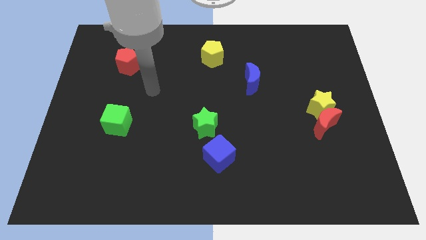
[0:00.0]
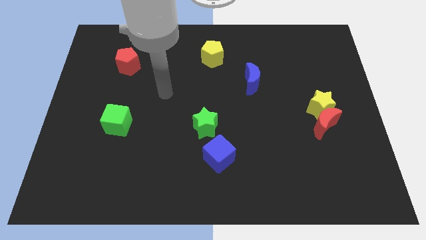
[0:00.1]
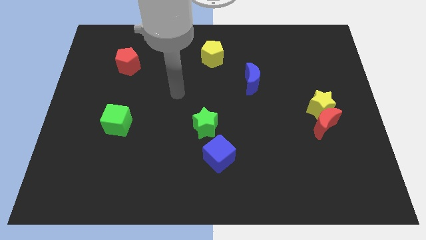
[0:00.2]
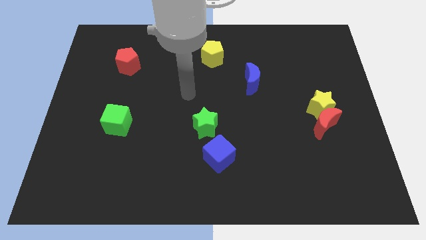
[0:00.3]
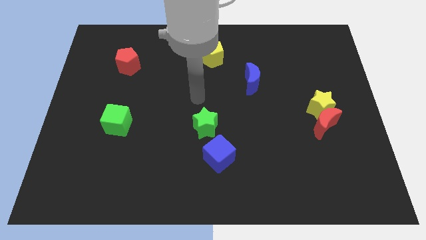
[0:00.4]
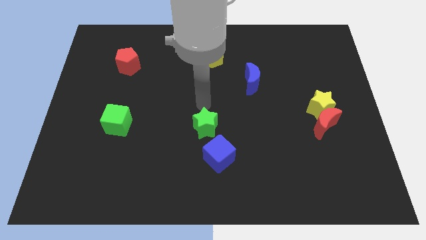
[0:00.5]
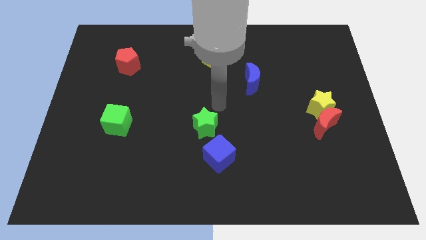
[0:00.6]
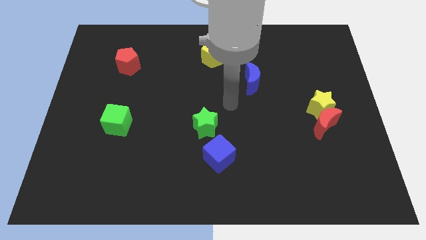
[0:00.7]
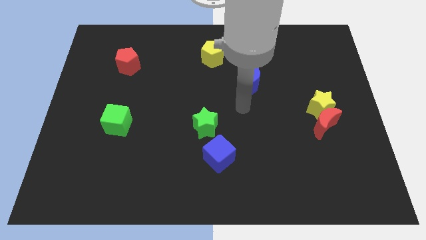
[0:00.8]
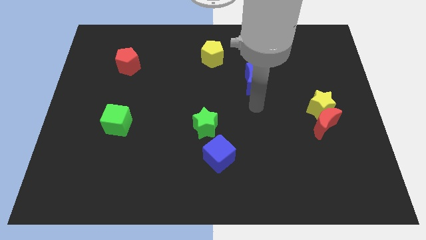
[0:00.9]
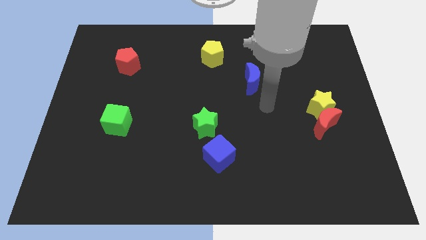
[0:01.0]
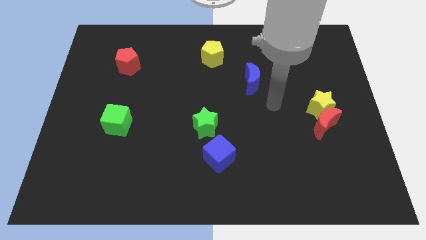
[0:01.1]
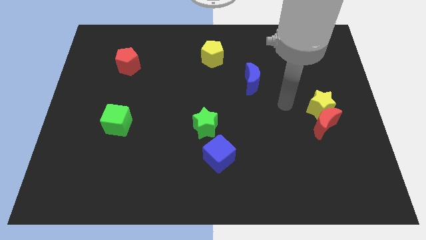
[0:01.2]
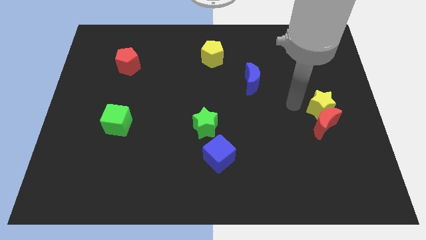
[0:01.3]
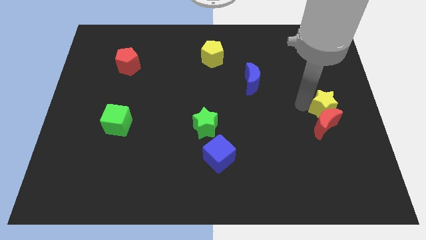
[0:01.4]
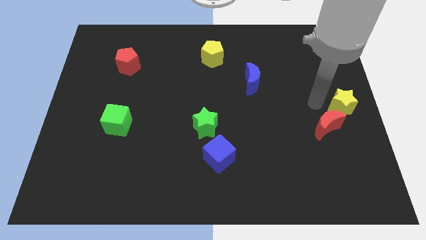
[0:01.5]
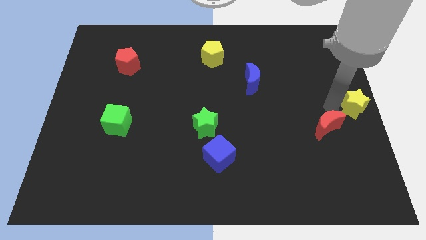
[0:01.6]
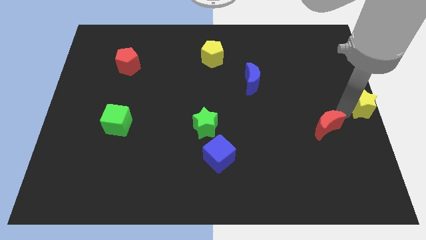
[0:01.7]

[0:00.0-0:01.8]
pull the red moon apart from the yellow star

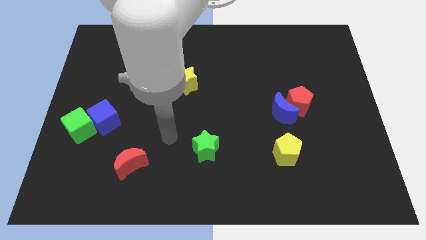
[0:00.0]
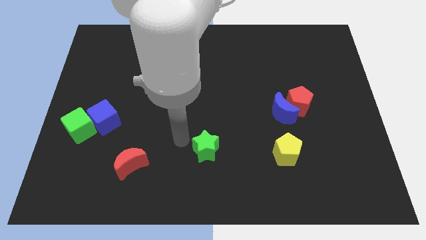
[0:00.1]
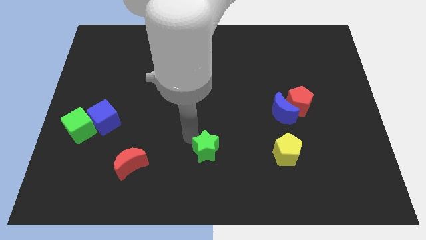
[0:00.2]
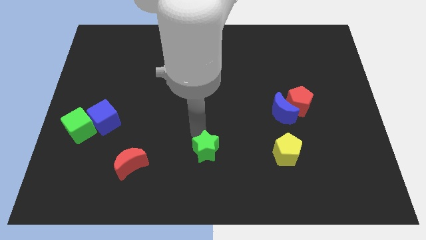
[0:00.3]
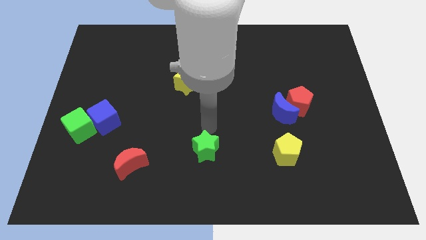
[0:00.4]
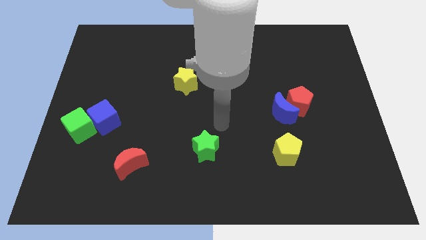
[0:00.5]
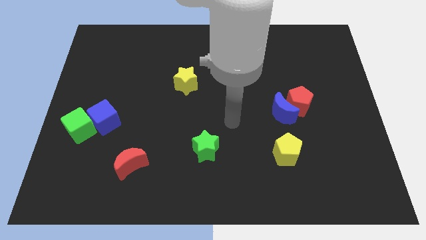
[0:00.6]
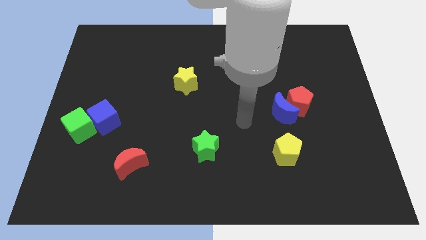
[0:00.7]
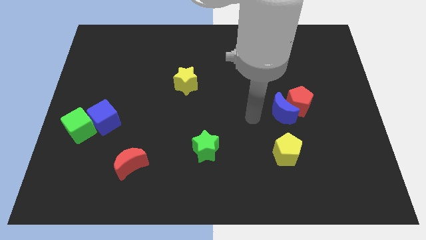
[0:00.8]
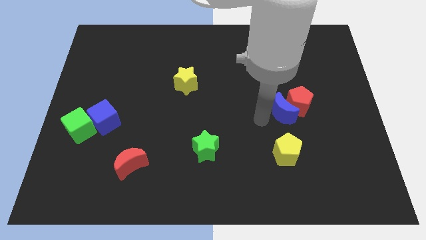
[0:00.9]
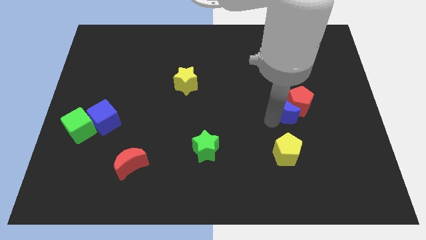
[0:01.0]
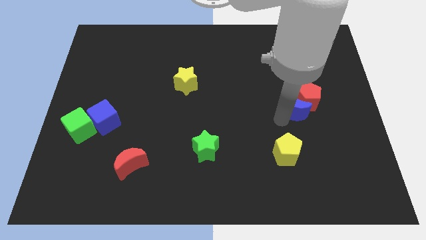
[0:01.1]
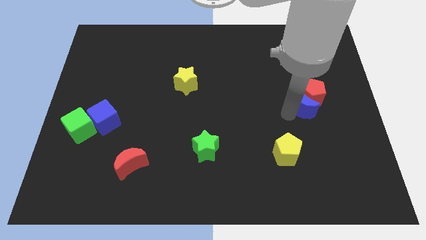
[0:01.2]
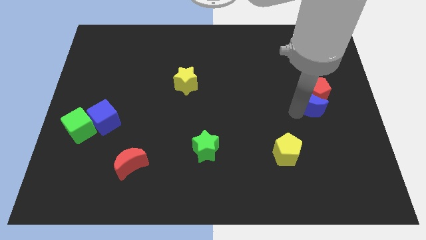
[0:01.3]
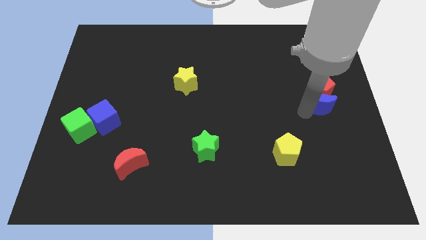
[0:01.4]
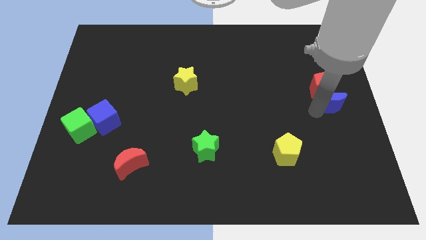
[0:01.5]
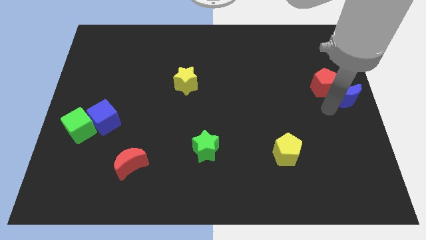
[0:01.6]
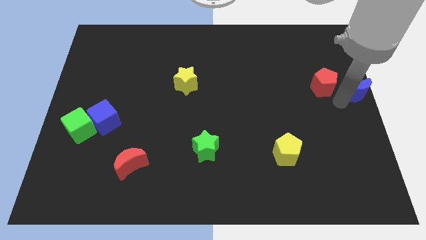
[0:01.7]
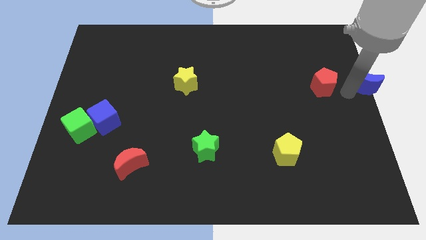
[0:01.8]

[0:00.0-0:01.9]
separate the red pentagon from the blue moon

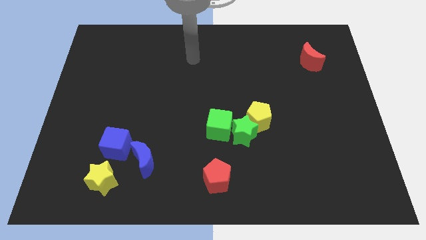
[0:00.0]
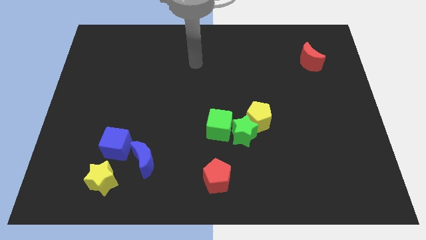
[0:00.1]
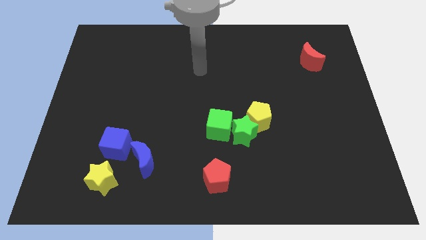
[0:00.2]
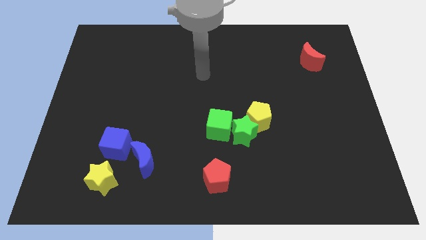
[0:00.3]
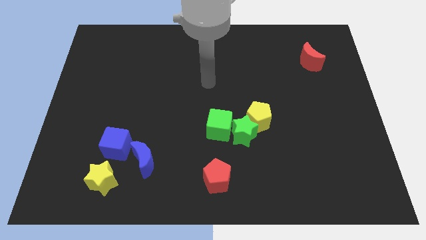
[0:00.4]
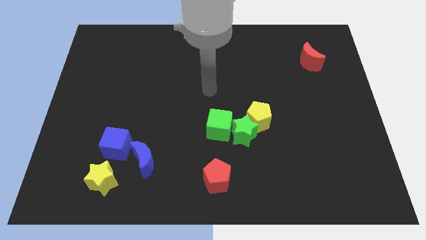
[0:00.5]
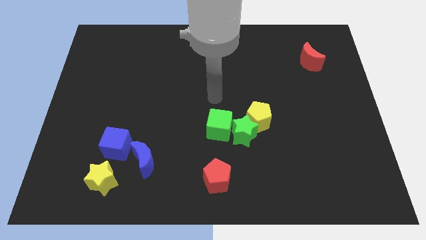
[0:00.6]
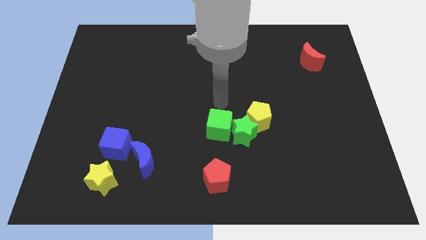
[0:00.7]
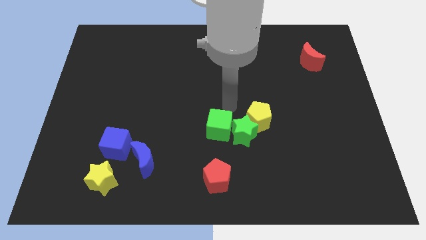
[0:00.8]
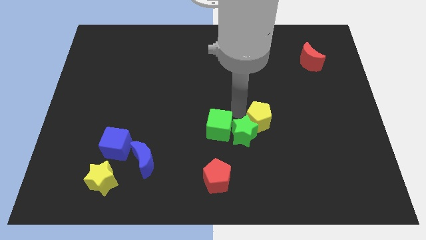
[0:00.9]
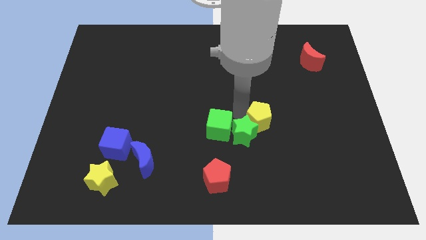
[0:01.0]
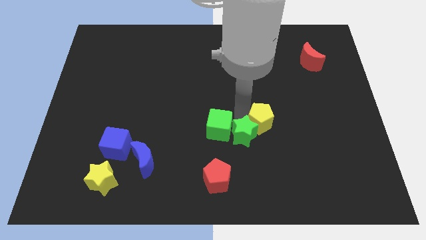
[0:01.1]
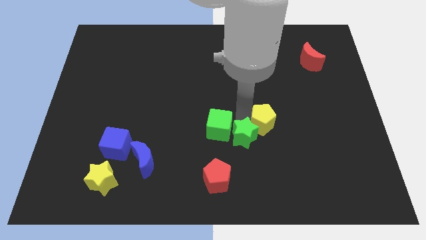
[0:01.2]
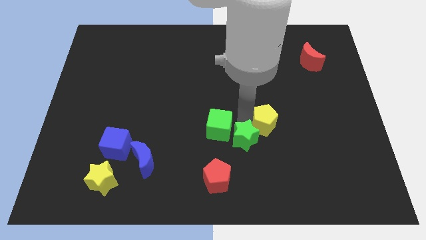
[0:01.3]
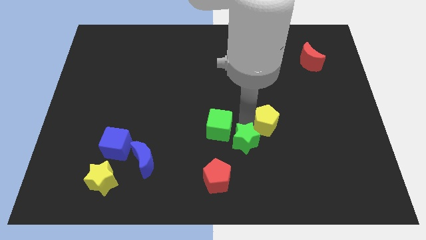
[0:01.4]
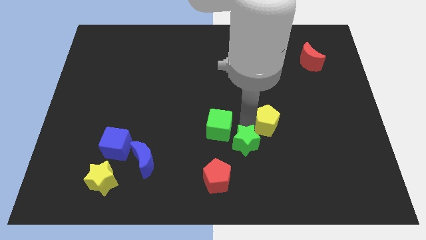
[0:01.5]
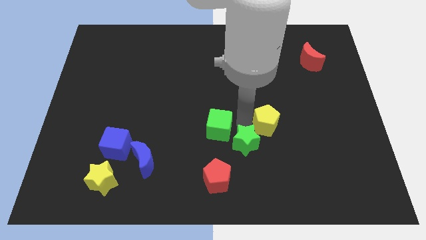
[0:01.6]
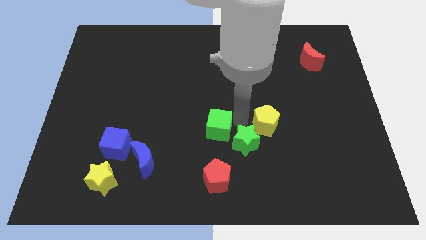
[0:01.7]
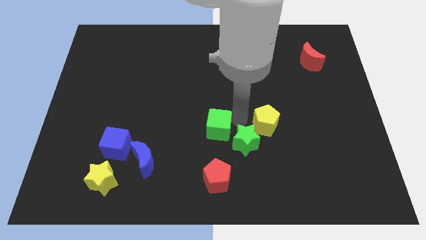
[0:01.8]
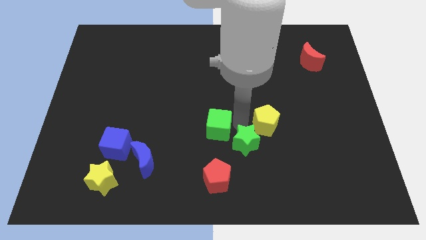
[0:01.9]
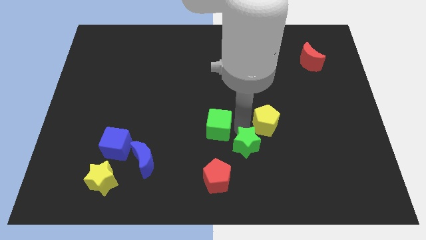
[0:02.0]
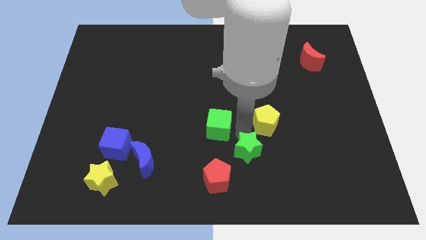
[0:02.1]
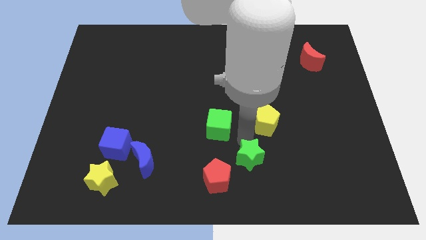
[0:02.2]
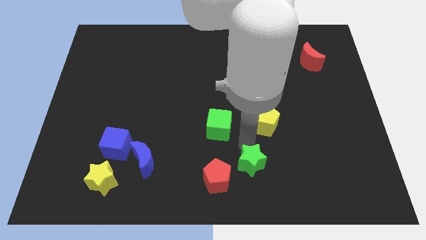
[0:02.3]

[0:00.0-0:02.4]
separate the green star from the yellow pentagon and green cube

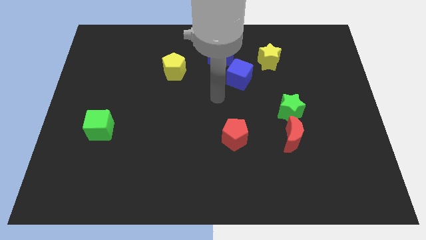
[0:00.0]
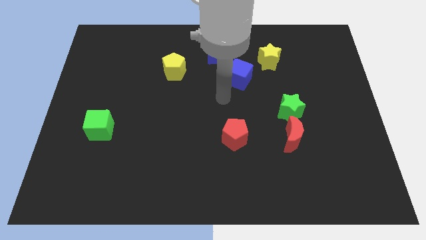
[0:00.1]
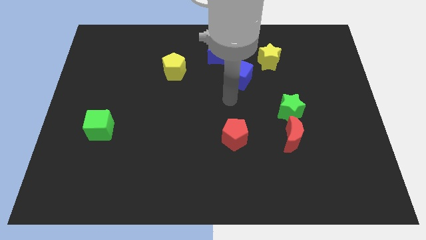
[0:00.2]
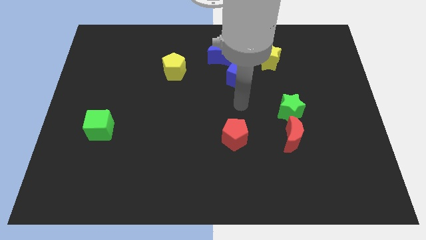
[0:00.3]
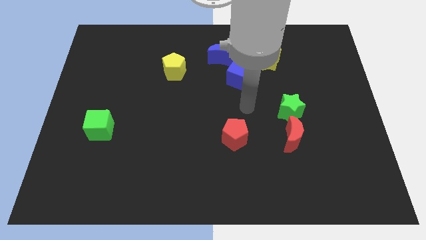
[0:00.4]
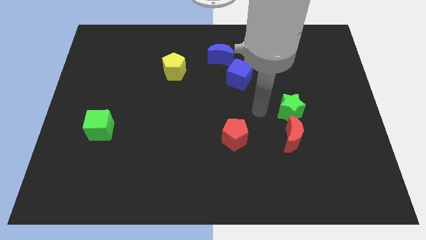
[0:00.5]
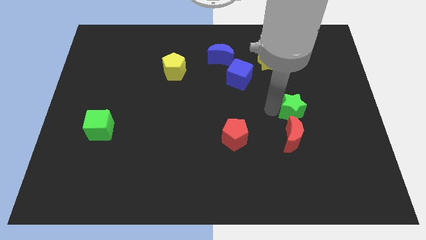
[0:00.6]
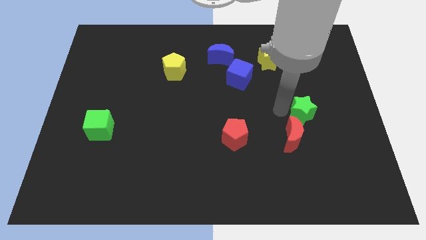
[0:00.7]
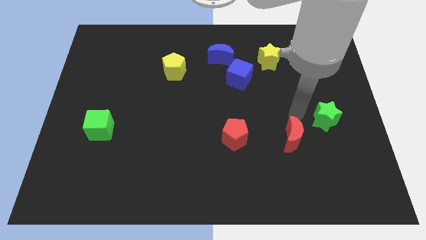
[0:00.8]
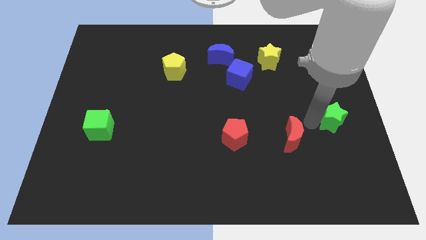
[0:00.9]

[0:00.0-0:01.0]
move the red moon away from the green star

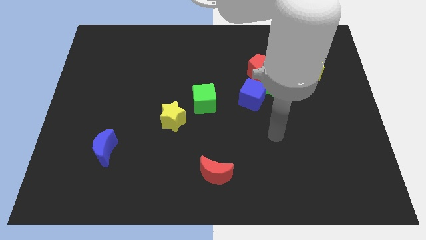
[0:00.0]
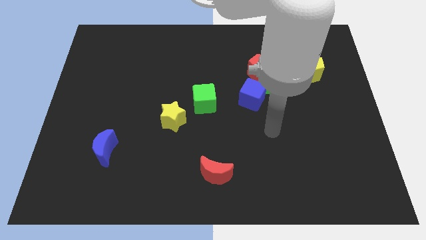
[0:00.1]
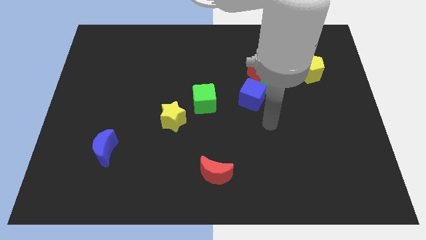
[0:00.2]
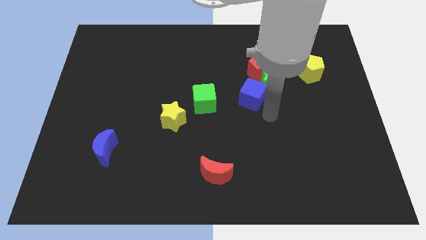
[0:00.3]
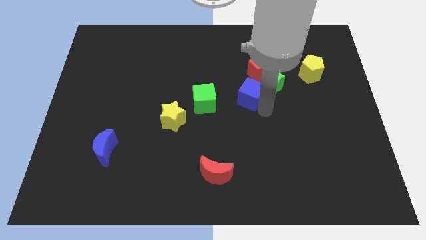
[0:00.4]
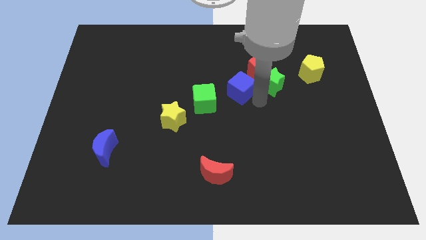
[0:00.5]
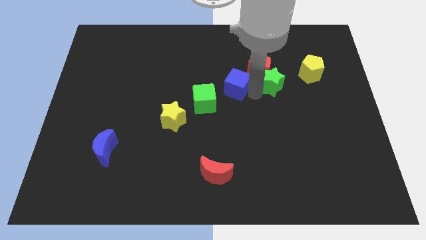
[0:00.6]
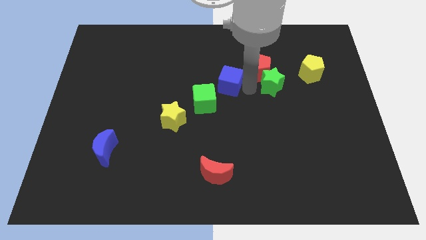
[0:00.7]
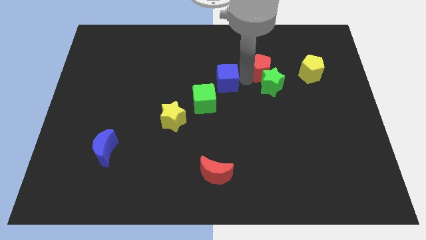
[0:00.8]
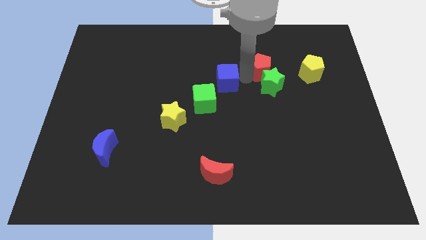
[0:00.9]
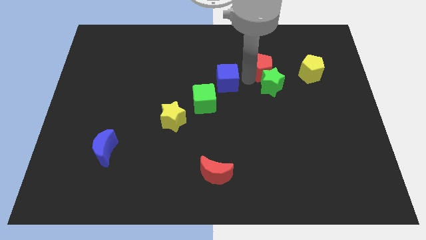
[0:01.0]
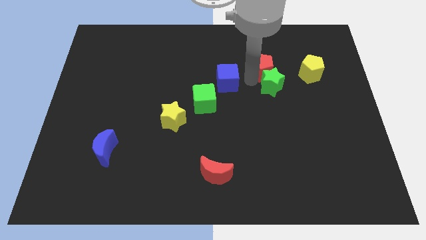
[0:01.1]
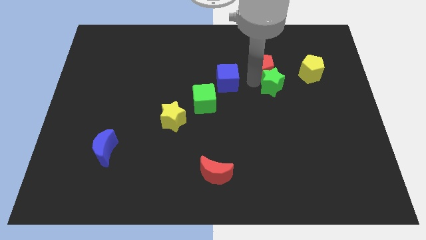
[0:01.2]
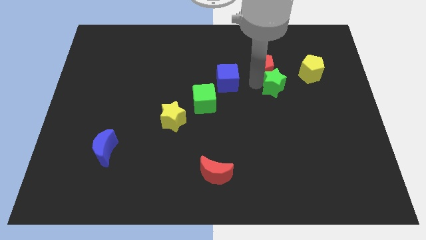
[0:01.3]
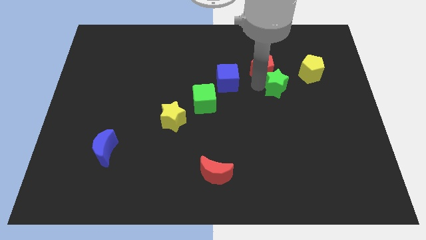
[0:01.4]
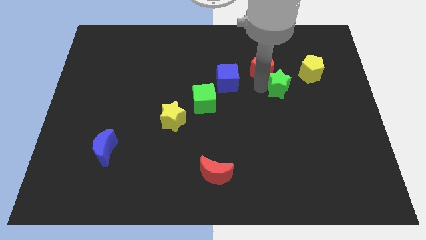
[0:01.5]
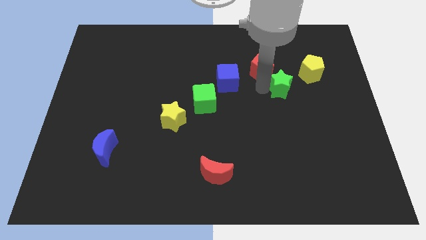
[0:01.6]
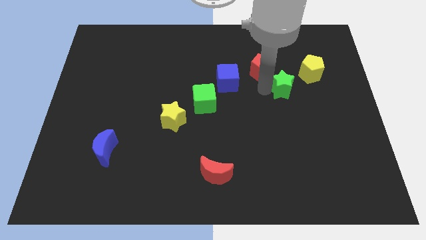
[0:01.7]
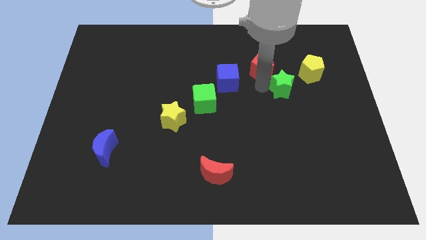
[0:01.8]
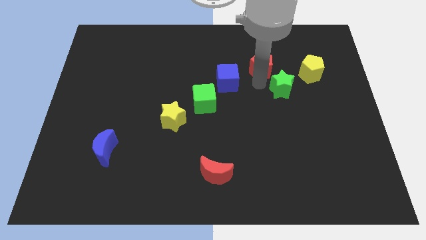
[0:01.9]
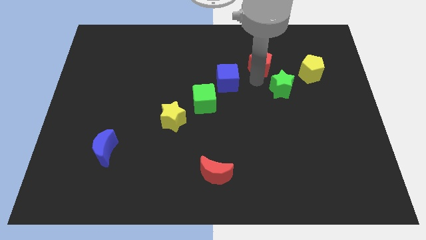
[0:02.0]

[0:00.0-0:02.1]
pull the green star apart from the red pentagon and blue cube
